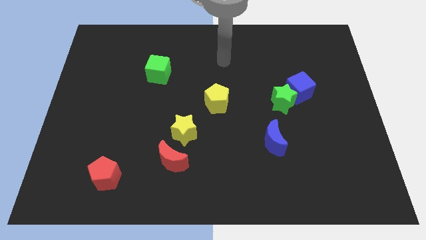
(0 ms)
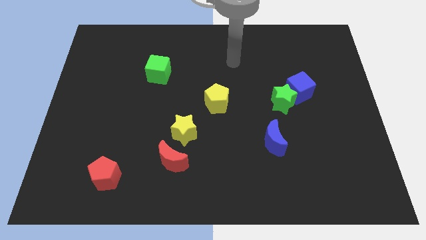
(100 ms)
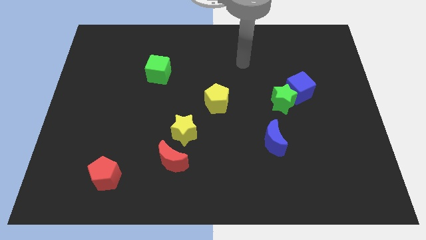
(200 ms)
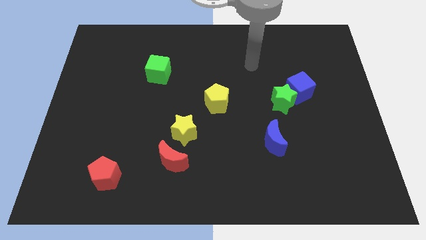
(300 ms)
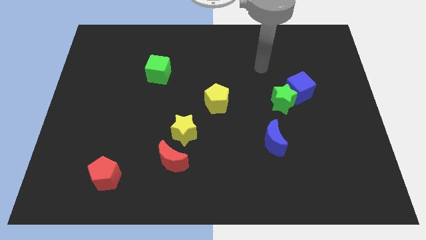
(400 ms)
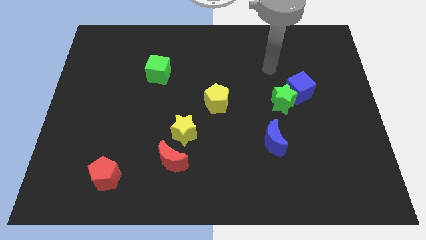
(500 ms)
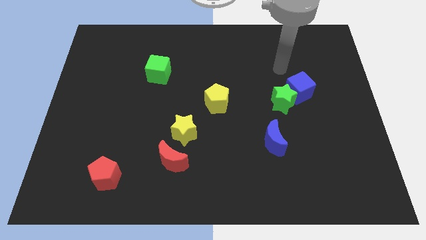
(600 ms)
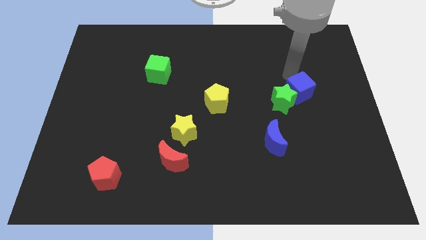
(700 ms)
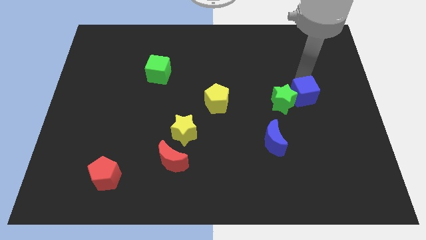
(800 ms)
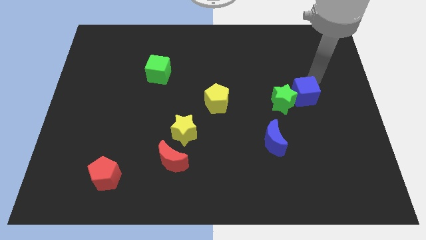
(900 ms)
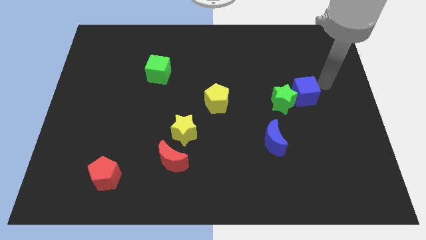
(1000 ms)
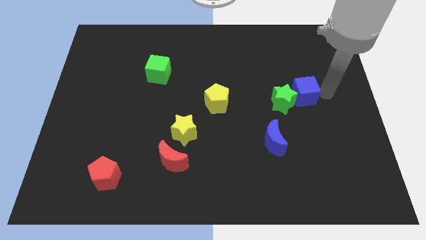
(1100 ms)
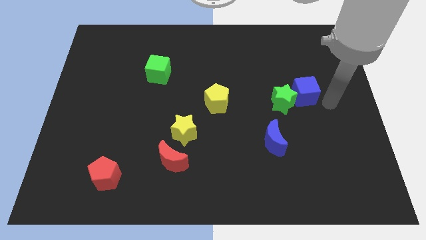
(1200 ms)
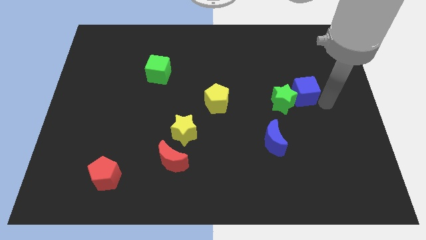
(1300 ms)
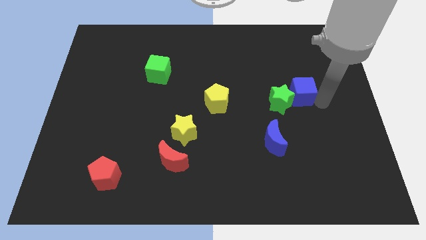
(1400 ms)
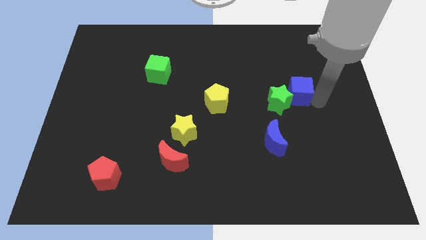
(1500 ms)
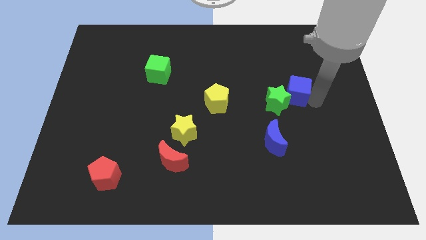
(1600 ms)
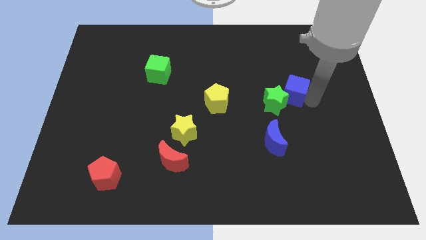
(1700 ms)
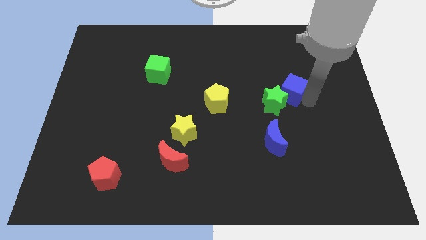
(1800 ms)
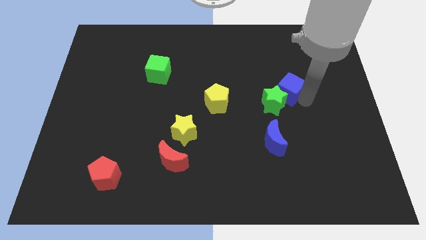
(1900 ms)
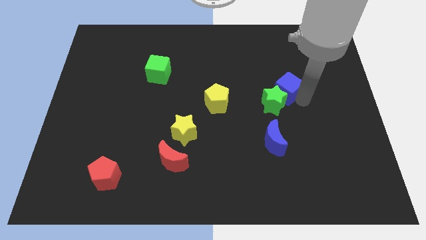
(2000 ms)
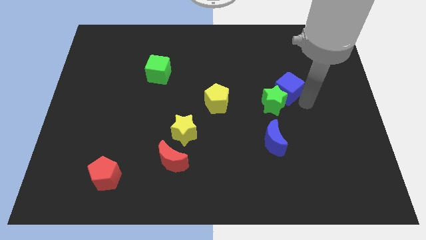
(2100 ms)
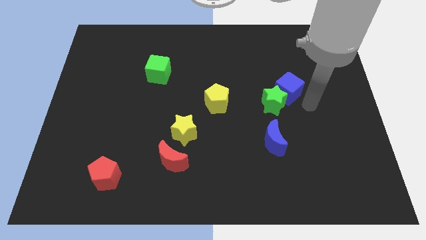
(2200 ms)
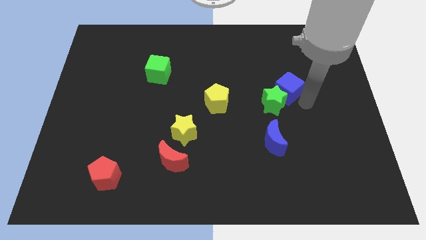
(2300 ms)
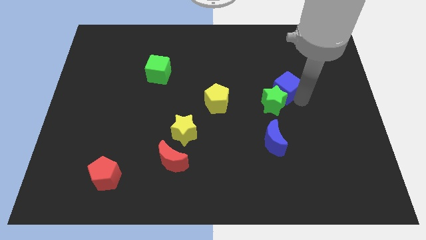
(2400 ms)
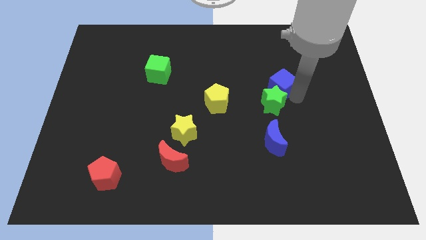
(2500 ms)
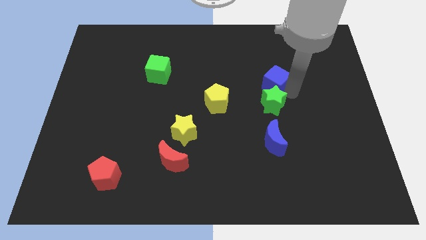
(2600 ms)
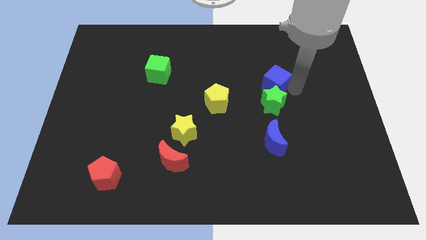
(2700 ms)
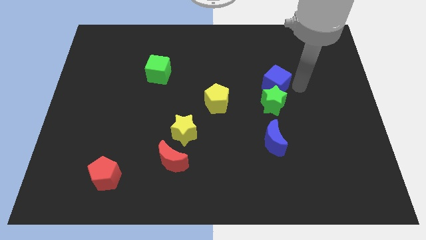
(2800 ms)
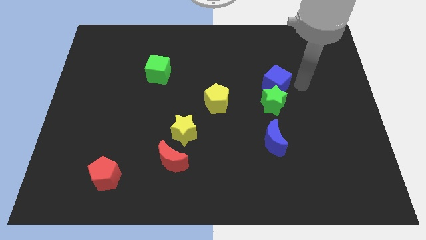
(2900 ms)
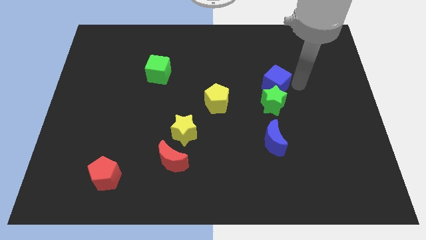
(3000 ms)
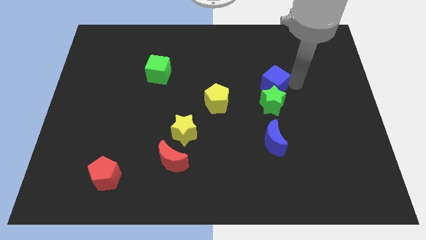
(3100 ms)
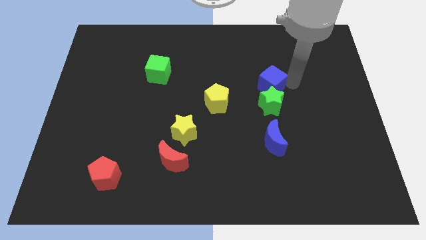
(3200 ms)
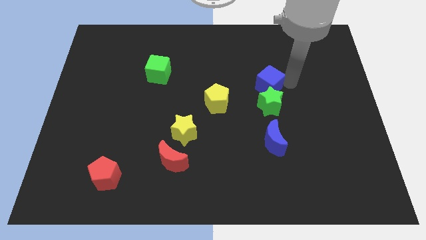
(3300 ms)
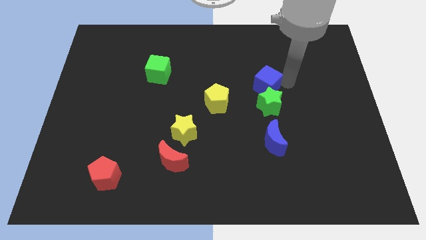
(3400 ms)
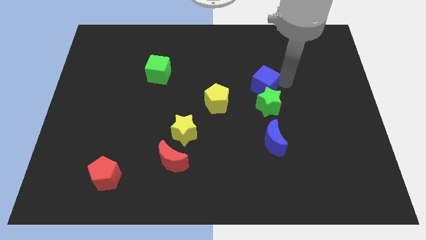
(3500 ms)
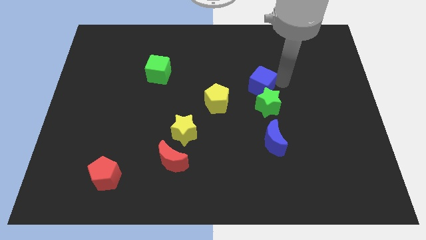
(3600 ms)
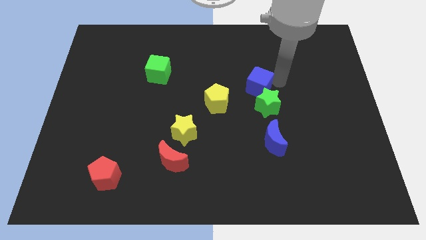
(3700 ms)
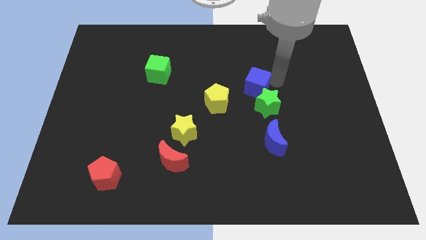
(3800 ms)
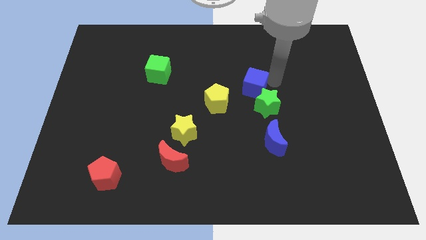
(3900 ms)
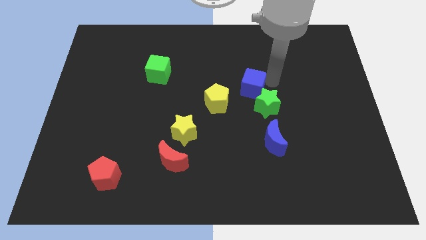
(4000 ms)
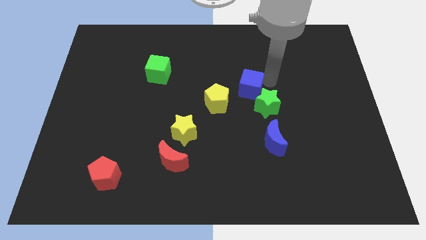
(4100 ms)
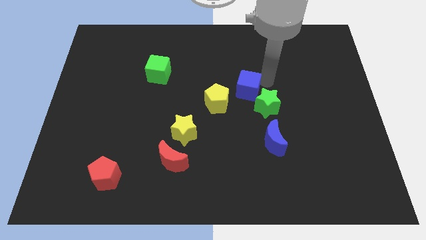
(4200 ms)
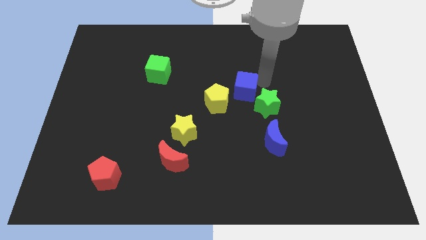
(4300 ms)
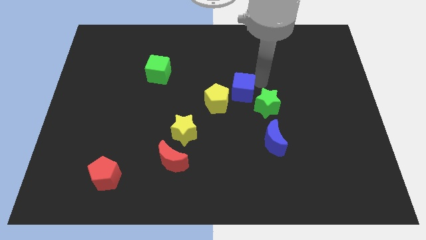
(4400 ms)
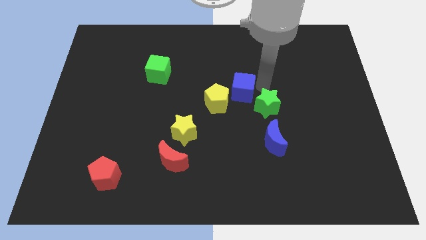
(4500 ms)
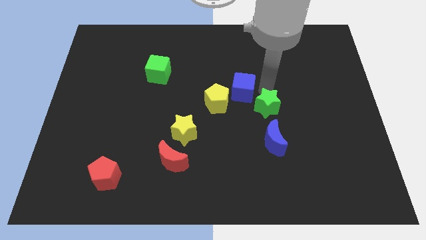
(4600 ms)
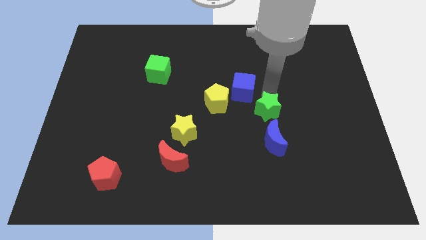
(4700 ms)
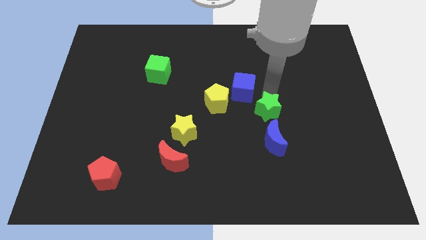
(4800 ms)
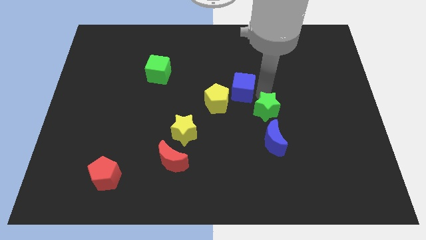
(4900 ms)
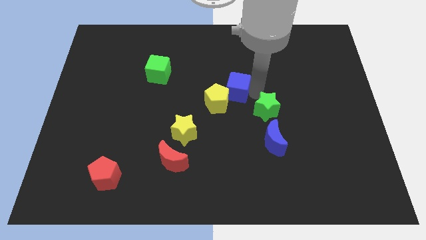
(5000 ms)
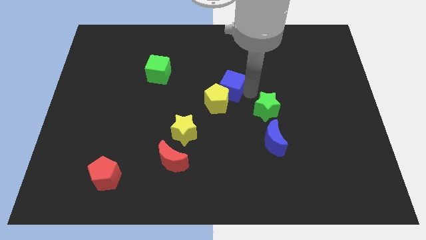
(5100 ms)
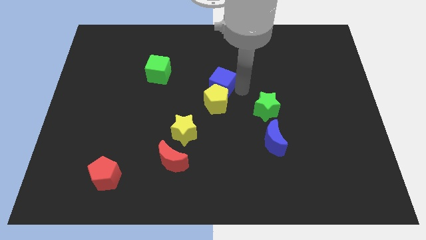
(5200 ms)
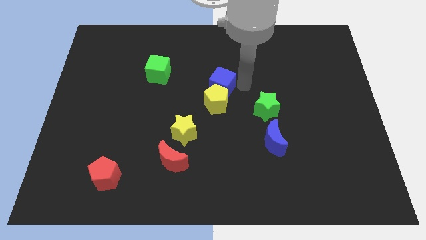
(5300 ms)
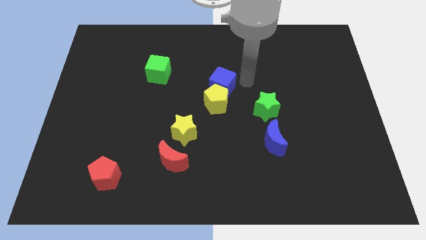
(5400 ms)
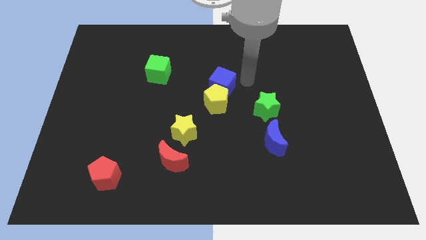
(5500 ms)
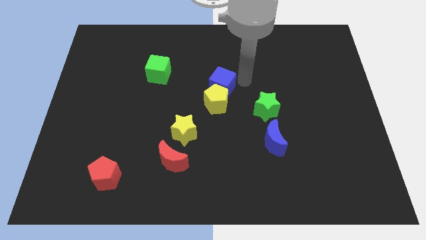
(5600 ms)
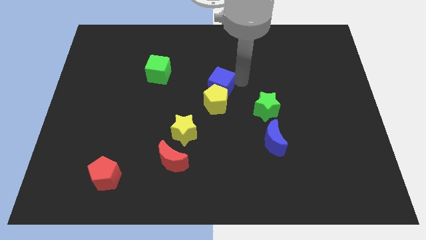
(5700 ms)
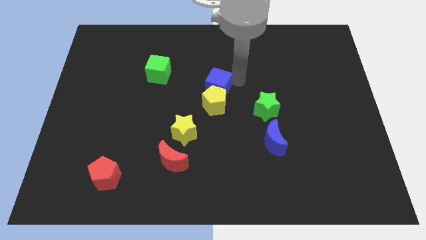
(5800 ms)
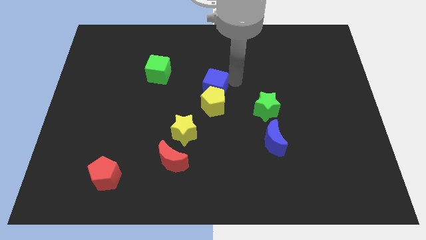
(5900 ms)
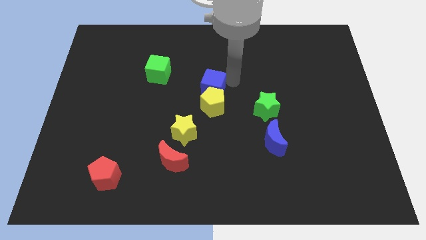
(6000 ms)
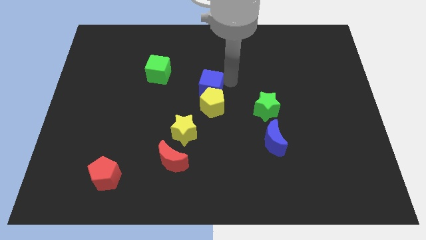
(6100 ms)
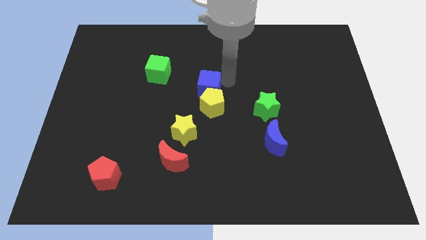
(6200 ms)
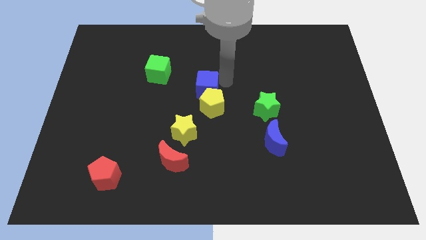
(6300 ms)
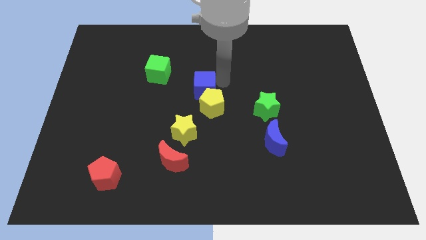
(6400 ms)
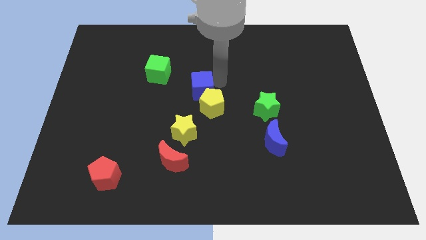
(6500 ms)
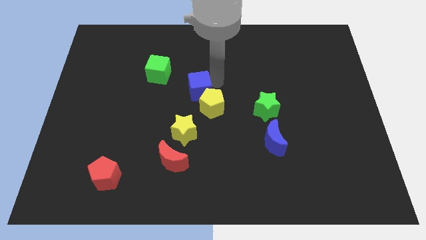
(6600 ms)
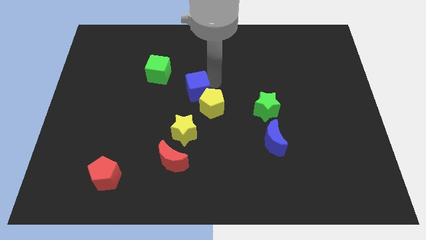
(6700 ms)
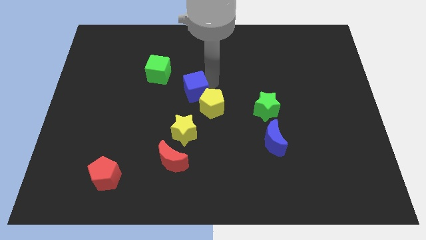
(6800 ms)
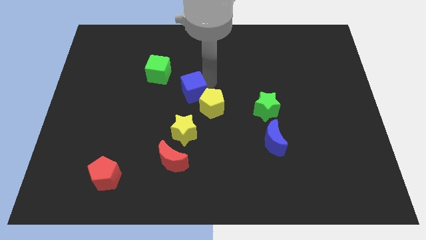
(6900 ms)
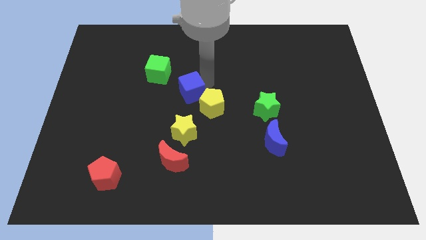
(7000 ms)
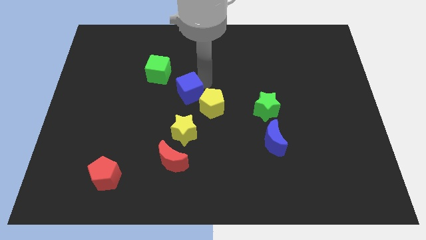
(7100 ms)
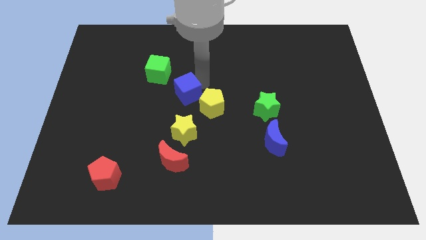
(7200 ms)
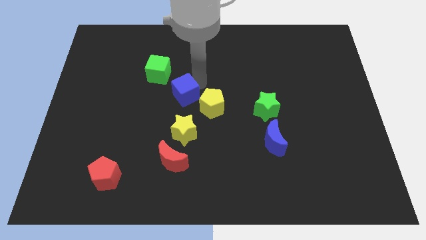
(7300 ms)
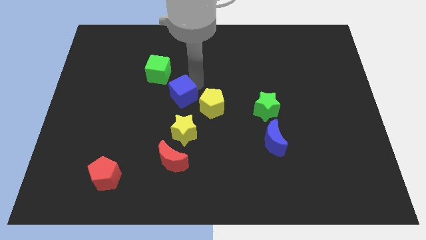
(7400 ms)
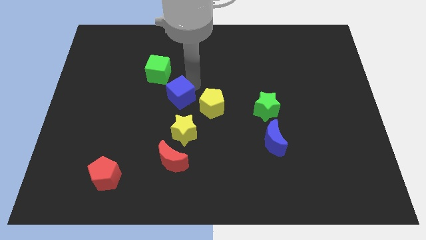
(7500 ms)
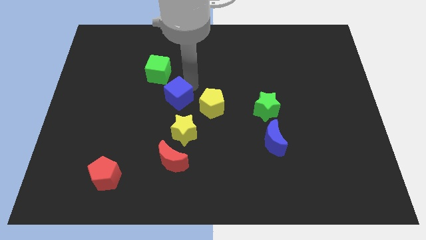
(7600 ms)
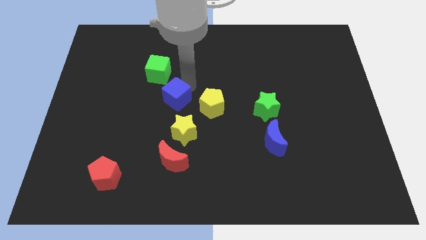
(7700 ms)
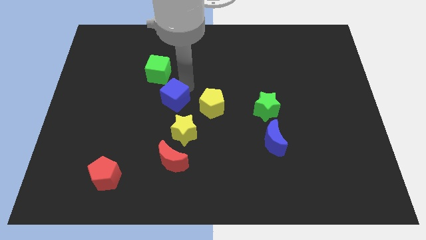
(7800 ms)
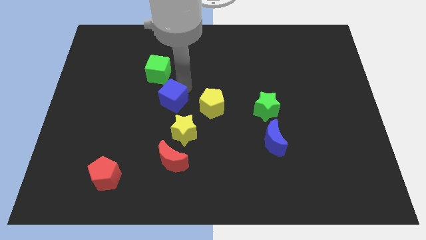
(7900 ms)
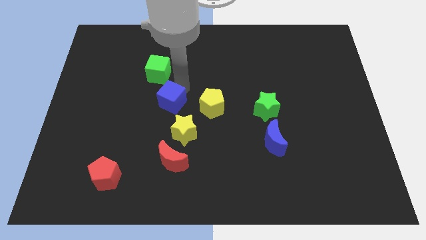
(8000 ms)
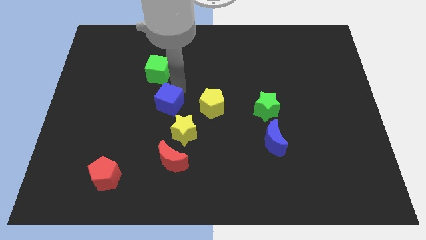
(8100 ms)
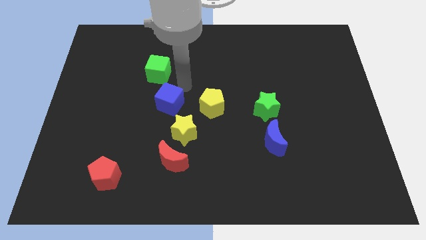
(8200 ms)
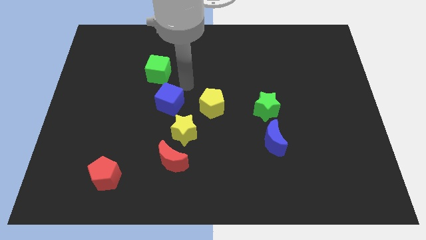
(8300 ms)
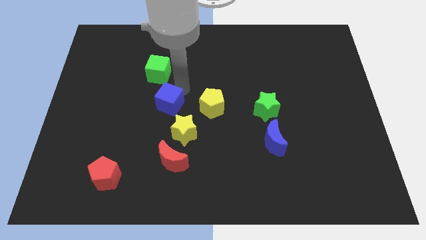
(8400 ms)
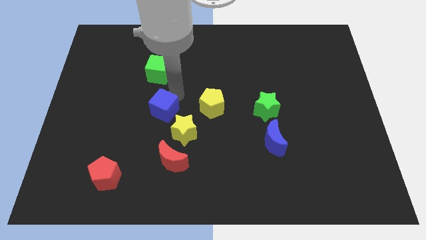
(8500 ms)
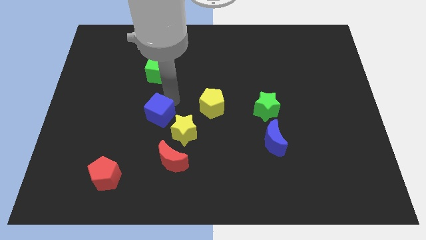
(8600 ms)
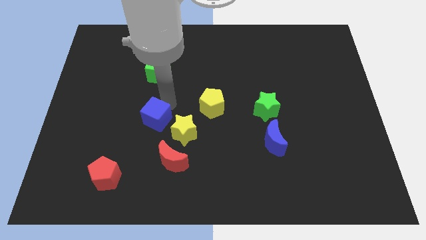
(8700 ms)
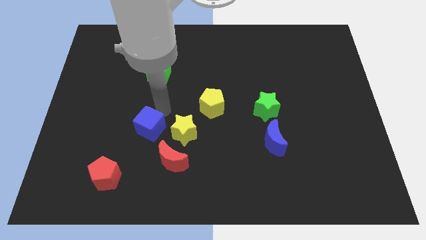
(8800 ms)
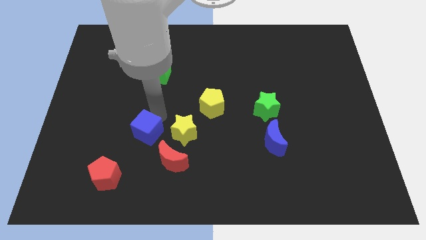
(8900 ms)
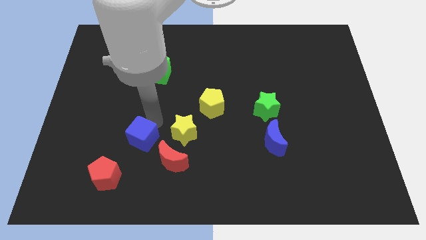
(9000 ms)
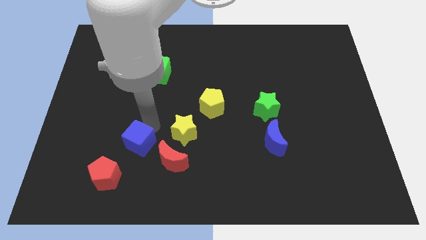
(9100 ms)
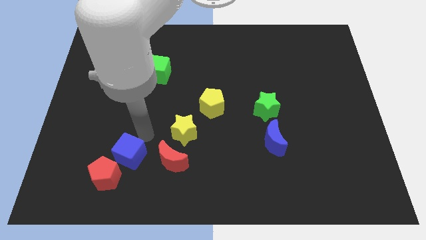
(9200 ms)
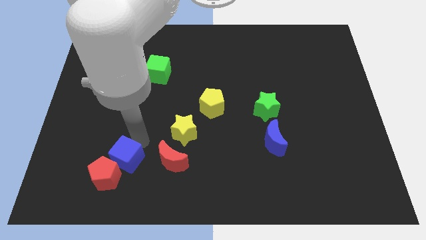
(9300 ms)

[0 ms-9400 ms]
push the blue cube towards the red pentagon
